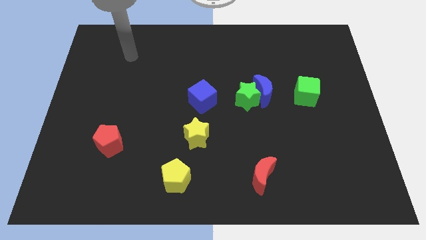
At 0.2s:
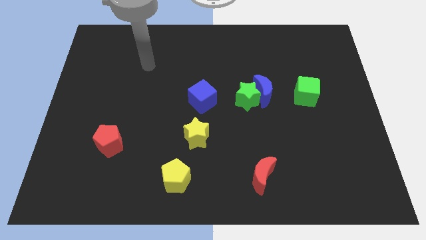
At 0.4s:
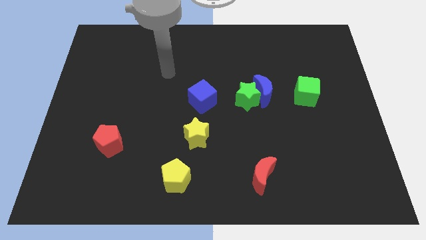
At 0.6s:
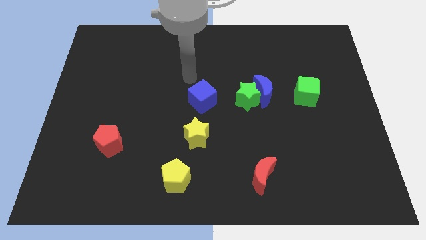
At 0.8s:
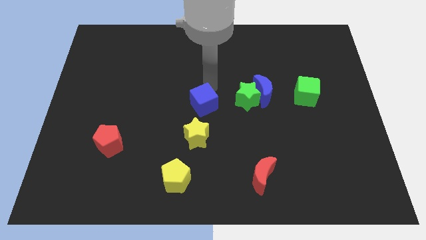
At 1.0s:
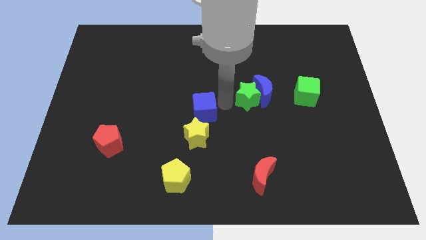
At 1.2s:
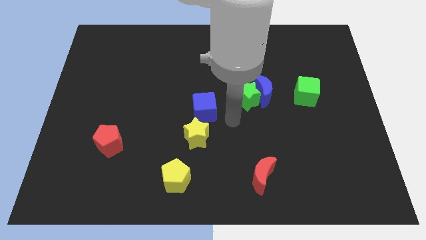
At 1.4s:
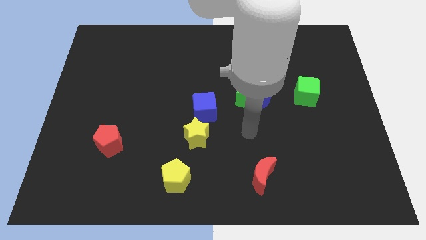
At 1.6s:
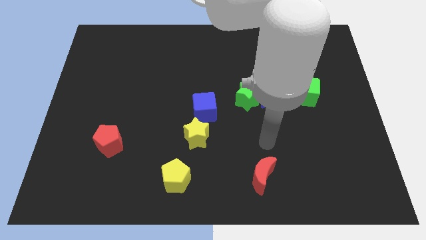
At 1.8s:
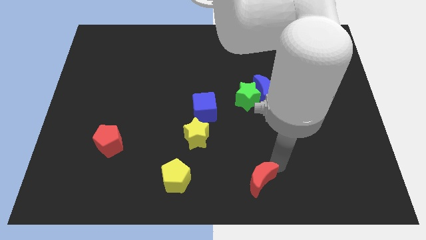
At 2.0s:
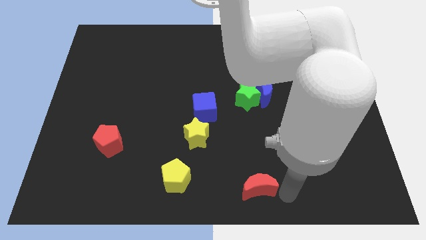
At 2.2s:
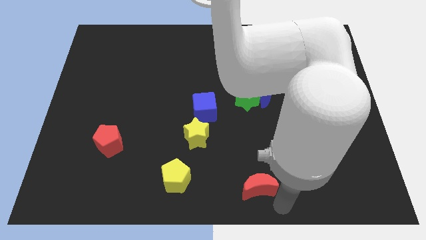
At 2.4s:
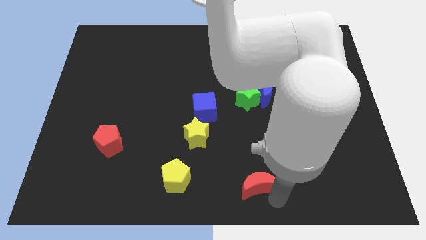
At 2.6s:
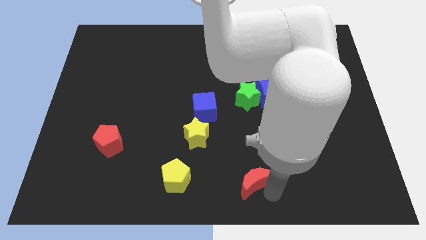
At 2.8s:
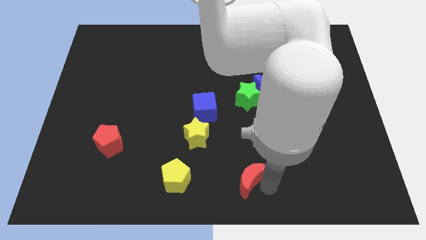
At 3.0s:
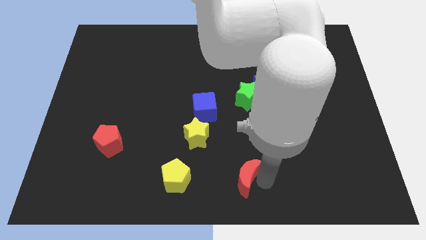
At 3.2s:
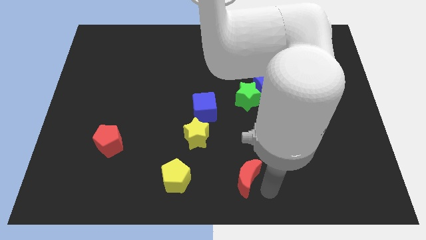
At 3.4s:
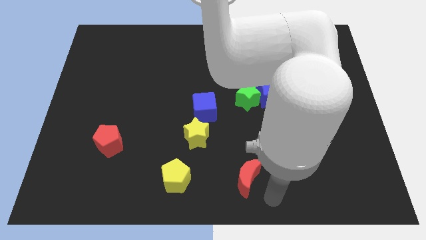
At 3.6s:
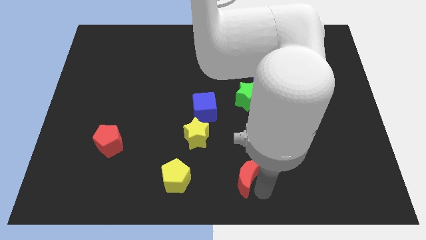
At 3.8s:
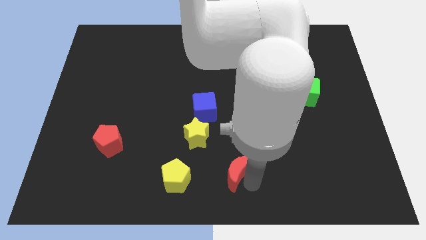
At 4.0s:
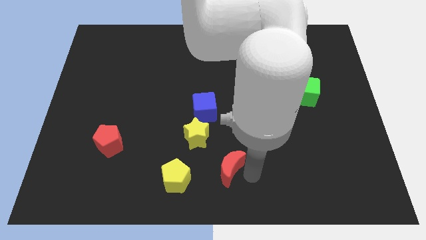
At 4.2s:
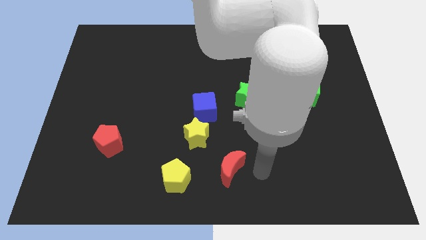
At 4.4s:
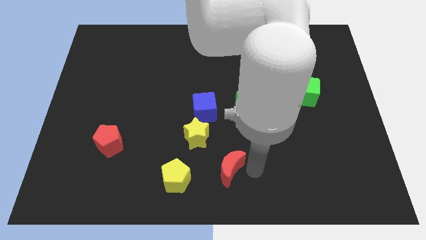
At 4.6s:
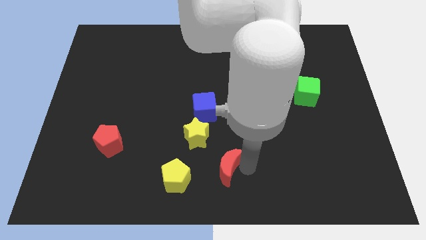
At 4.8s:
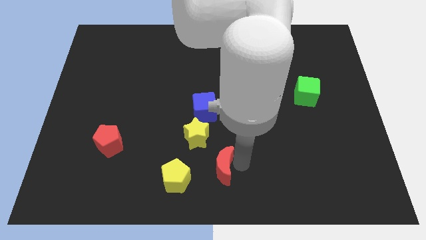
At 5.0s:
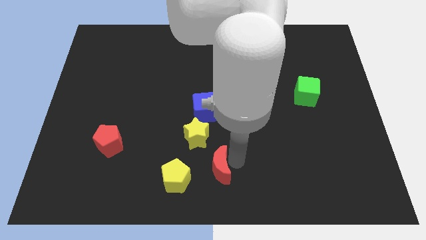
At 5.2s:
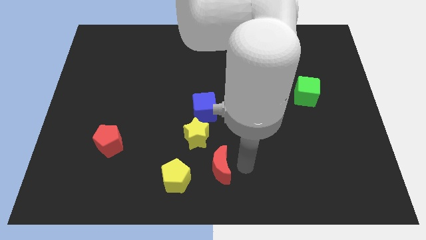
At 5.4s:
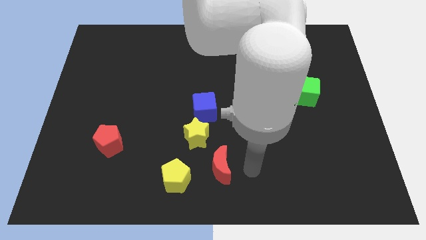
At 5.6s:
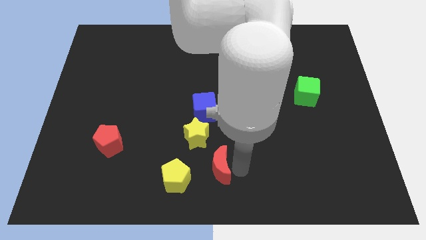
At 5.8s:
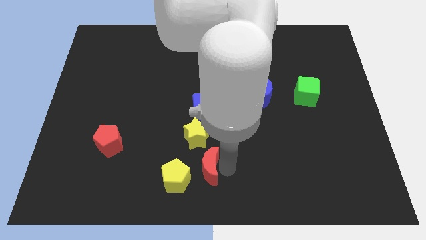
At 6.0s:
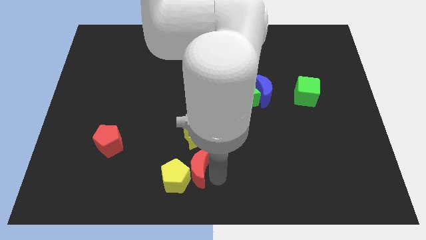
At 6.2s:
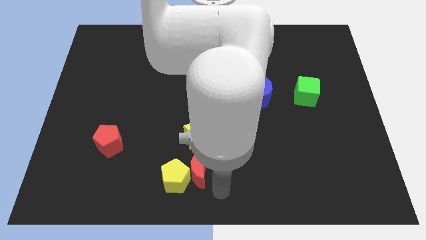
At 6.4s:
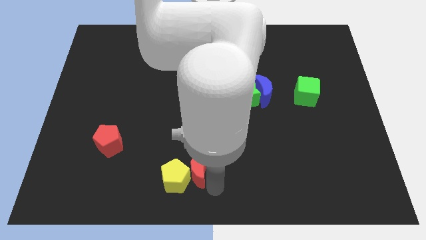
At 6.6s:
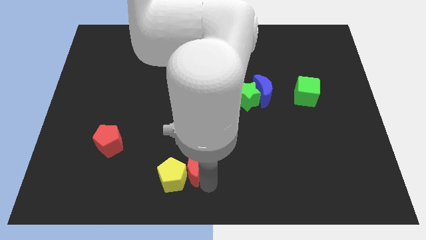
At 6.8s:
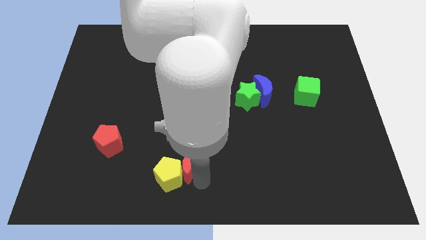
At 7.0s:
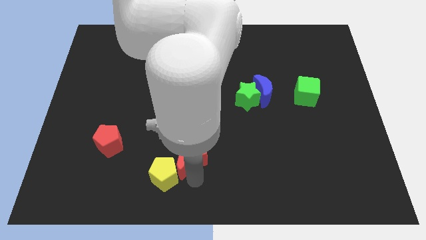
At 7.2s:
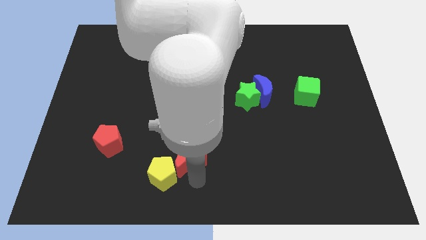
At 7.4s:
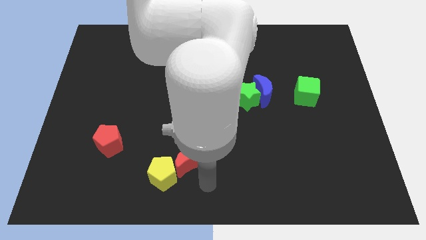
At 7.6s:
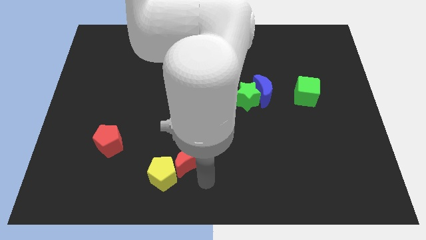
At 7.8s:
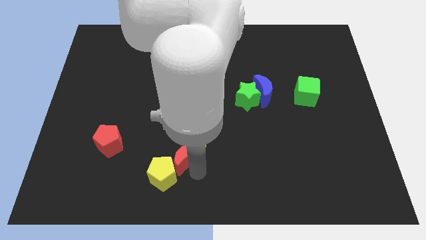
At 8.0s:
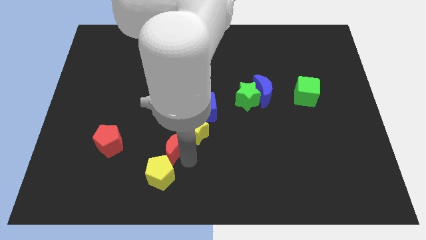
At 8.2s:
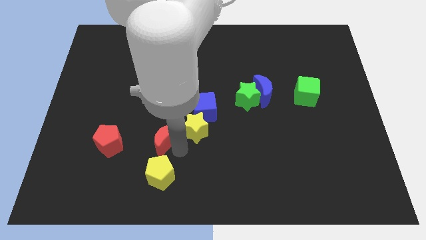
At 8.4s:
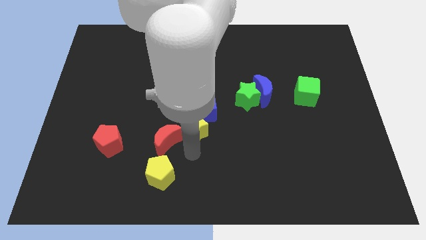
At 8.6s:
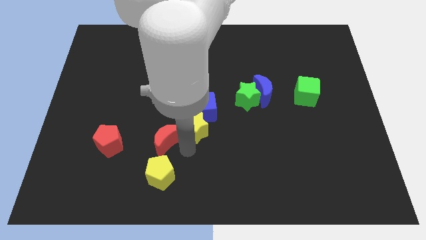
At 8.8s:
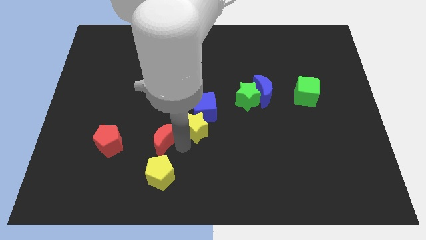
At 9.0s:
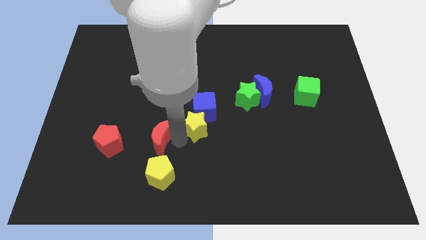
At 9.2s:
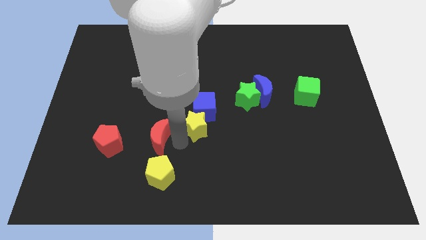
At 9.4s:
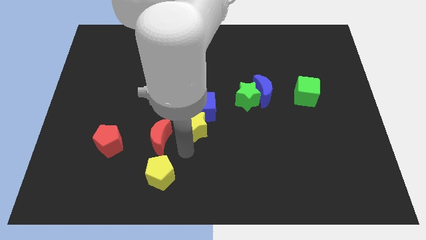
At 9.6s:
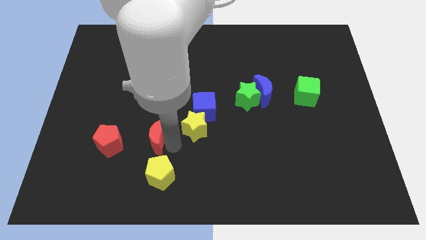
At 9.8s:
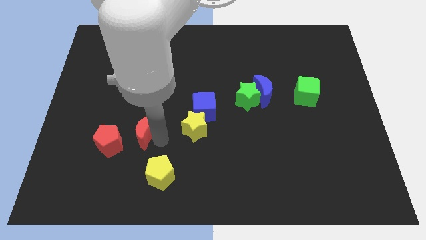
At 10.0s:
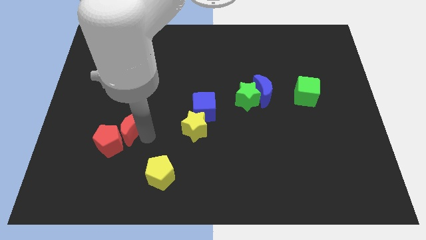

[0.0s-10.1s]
put the red moon above the red pentagon

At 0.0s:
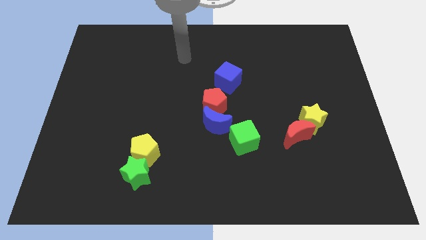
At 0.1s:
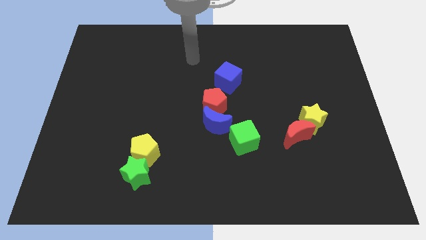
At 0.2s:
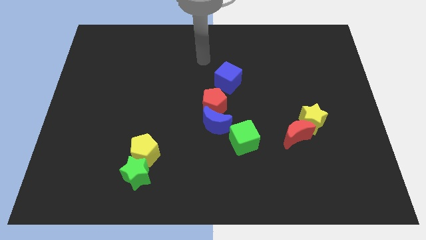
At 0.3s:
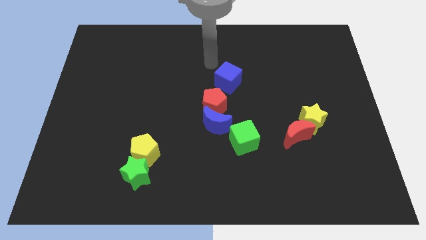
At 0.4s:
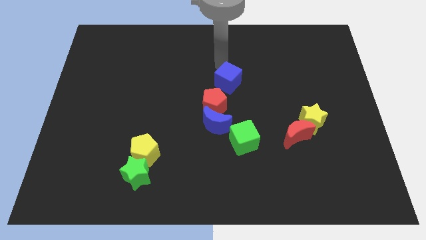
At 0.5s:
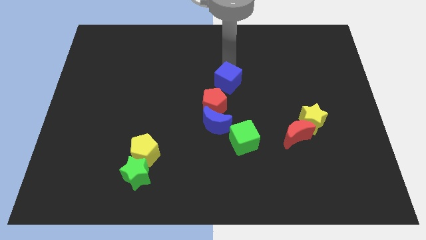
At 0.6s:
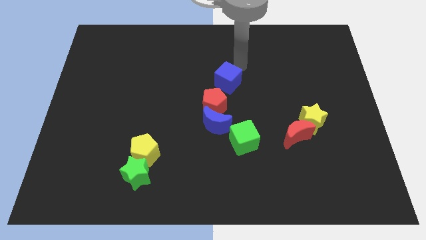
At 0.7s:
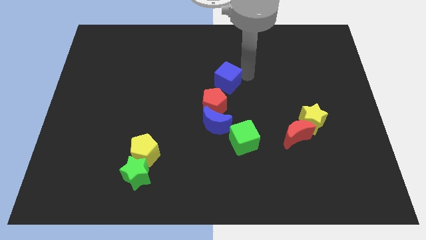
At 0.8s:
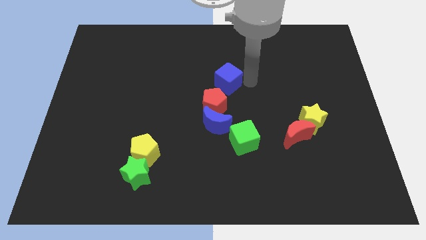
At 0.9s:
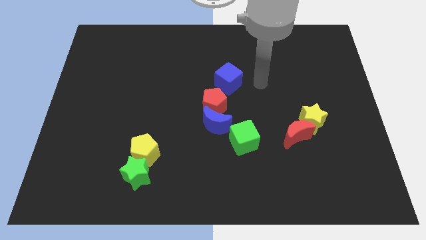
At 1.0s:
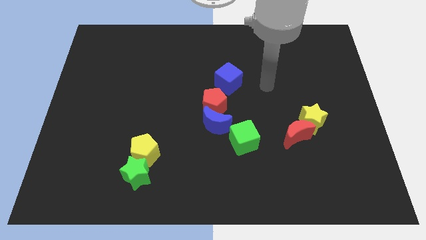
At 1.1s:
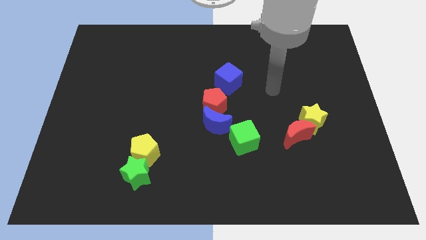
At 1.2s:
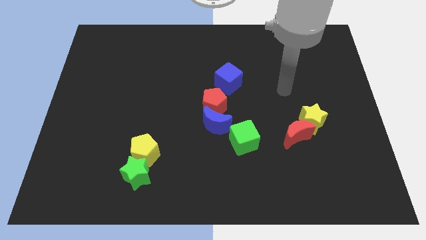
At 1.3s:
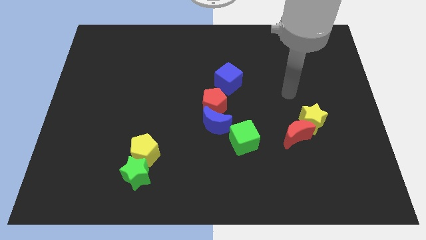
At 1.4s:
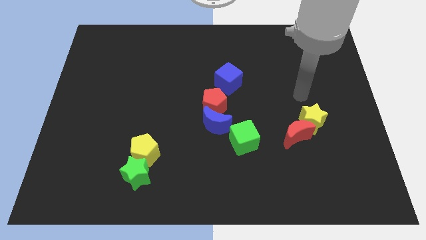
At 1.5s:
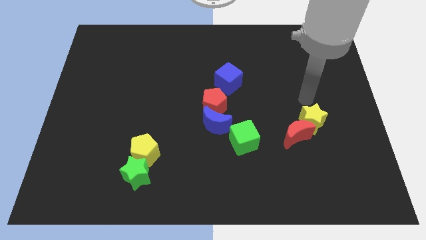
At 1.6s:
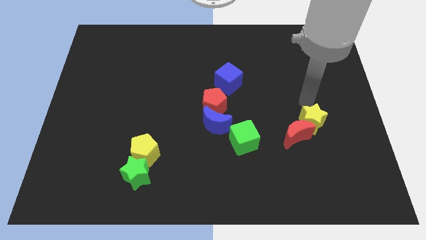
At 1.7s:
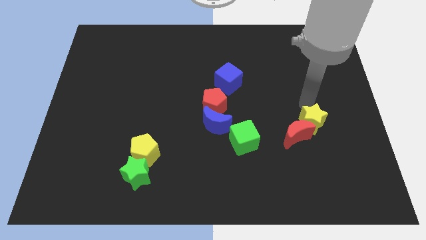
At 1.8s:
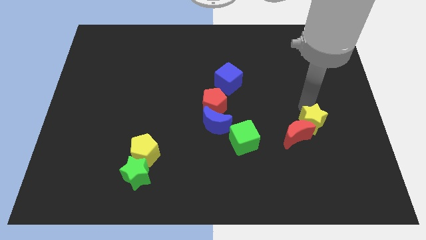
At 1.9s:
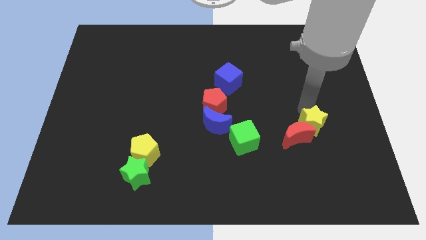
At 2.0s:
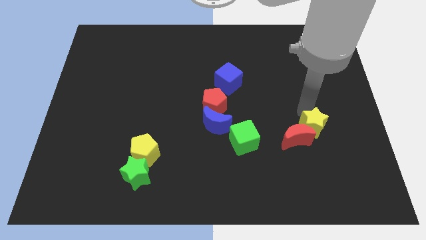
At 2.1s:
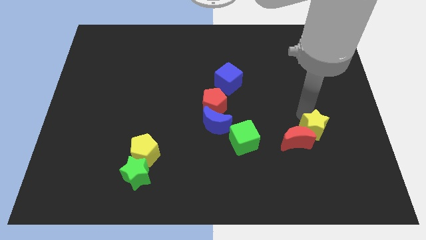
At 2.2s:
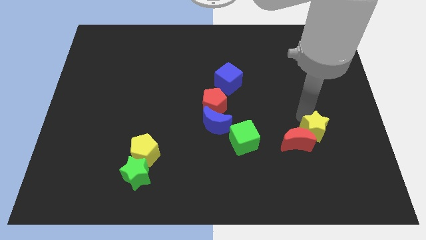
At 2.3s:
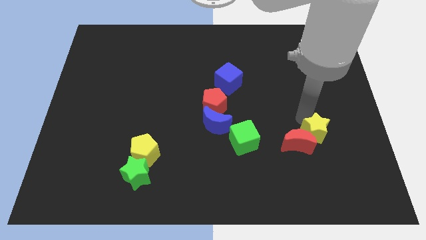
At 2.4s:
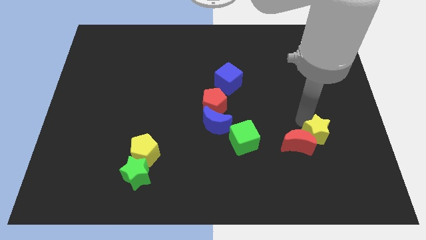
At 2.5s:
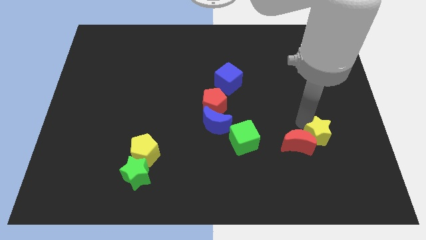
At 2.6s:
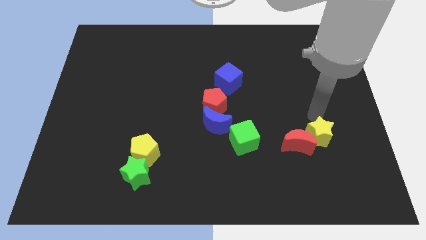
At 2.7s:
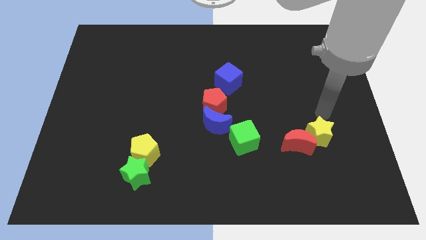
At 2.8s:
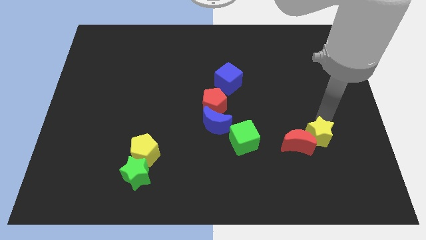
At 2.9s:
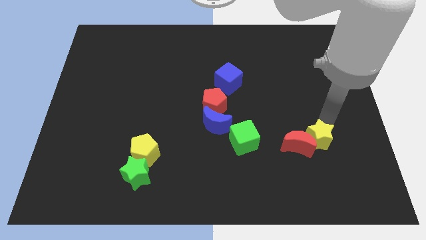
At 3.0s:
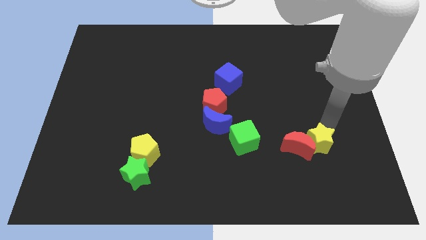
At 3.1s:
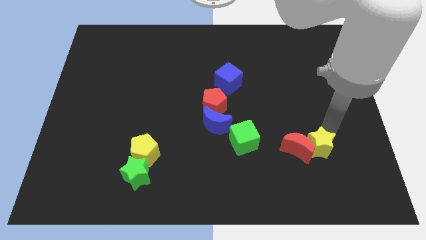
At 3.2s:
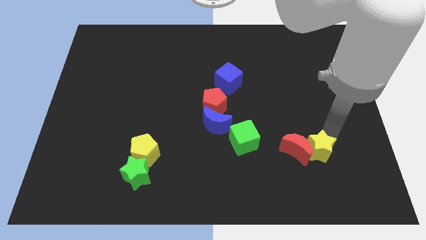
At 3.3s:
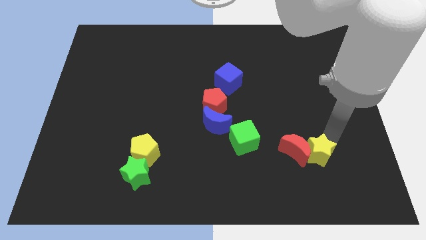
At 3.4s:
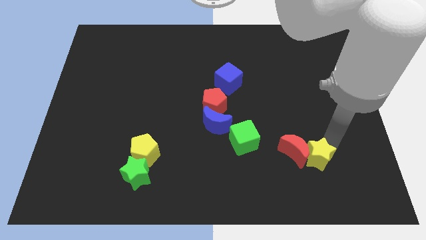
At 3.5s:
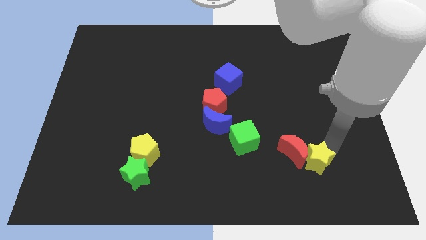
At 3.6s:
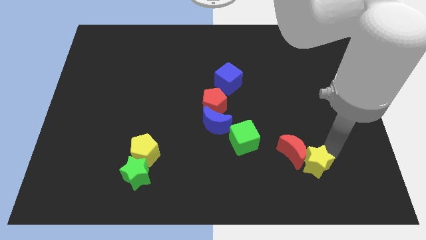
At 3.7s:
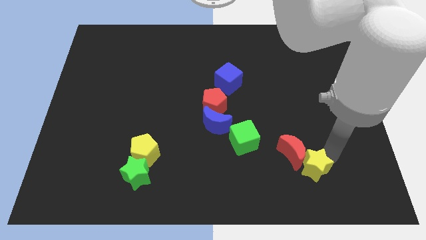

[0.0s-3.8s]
push the yellow star to the bottom of the red moon
